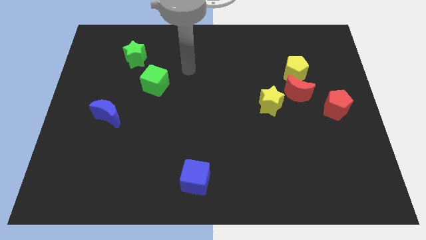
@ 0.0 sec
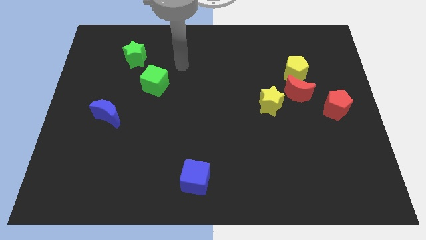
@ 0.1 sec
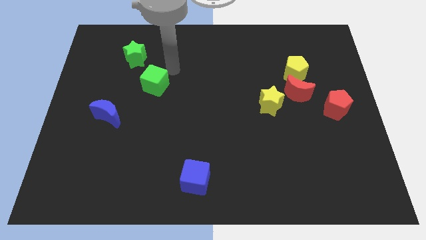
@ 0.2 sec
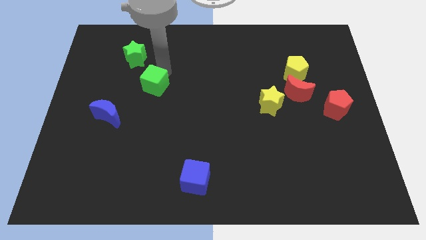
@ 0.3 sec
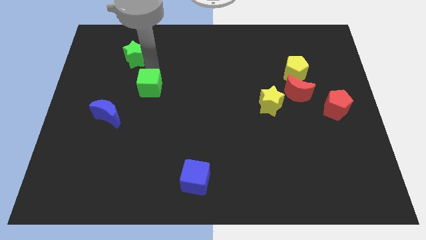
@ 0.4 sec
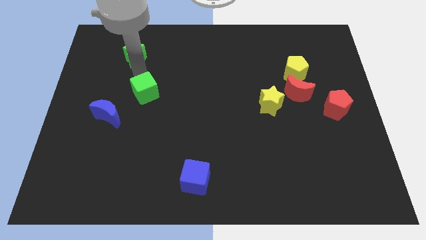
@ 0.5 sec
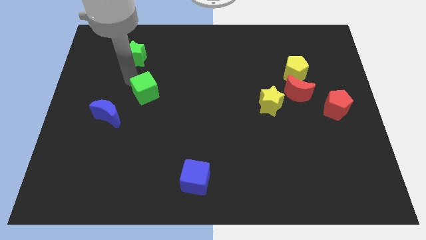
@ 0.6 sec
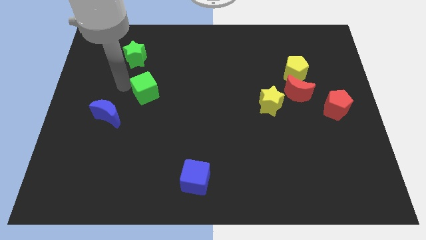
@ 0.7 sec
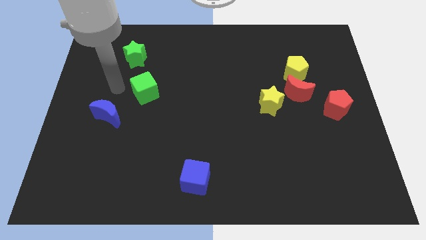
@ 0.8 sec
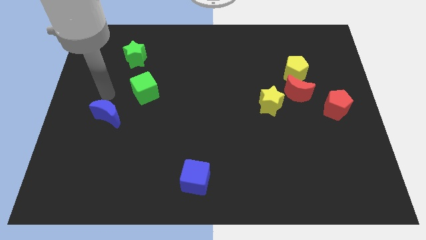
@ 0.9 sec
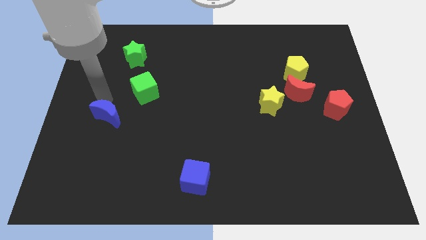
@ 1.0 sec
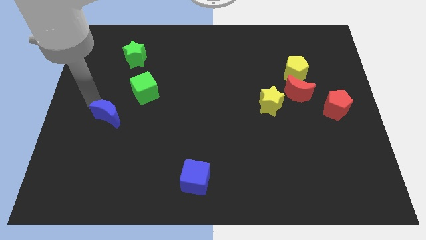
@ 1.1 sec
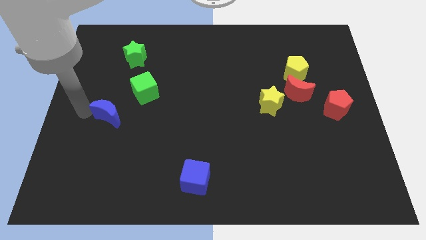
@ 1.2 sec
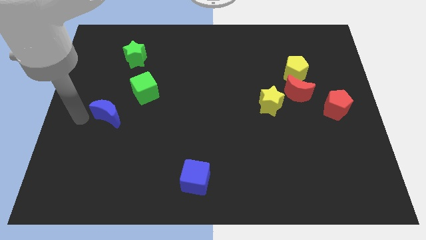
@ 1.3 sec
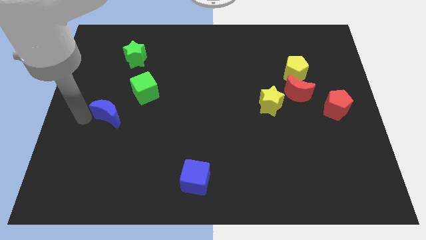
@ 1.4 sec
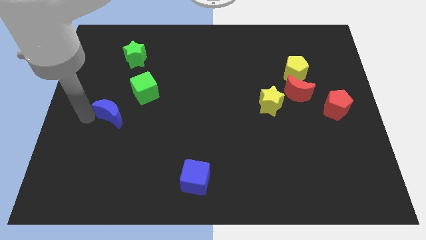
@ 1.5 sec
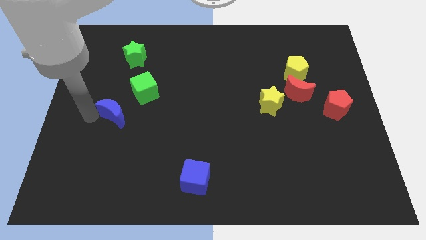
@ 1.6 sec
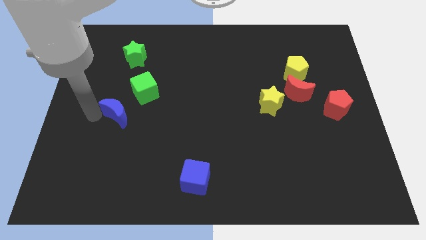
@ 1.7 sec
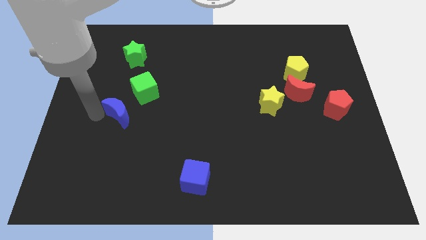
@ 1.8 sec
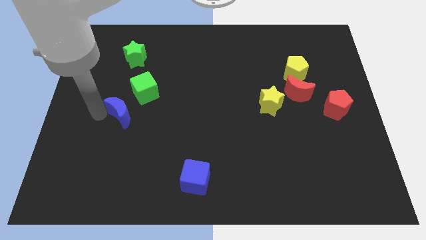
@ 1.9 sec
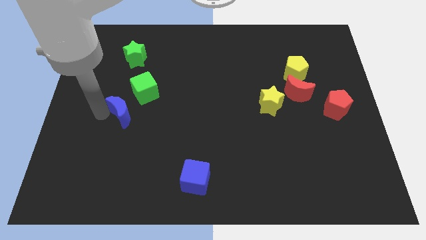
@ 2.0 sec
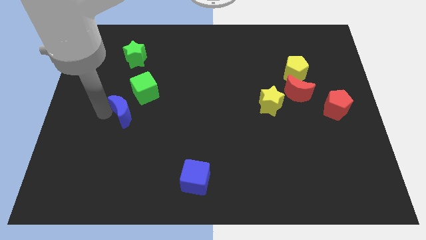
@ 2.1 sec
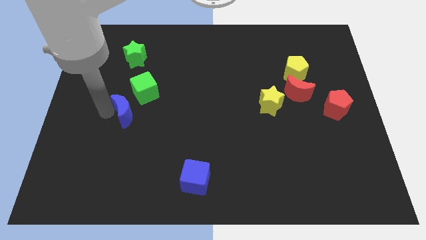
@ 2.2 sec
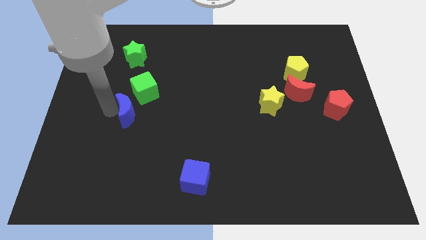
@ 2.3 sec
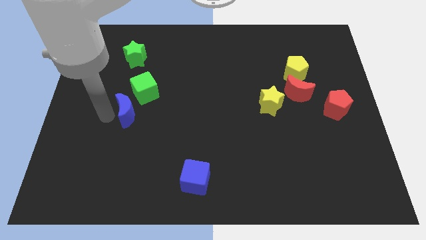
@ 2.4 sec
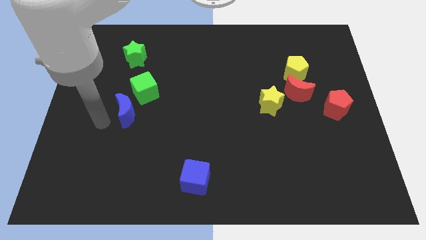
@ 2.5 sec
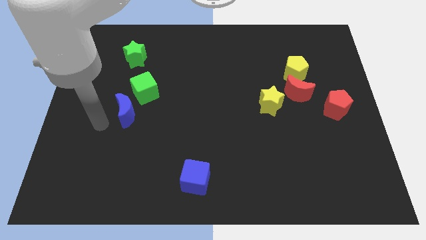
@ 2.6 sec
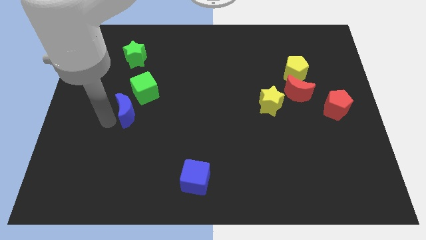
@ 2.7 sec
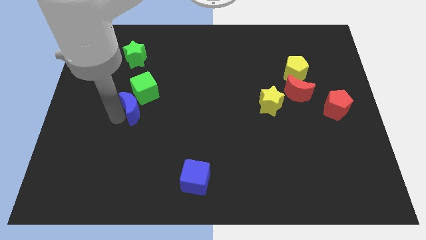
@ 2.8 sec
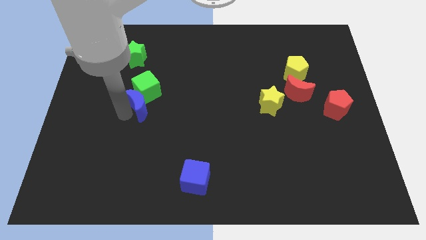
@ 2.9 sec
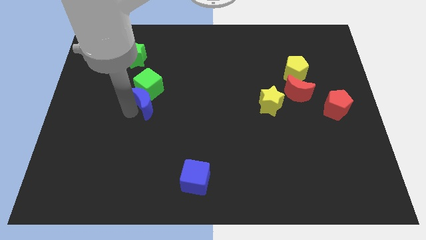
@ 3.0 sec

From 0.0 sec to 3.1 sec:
move the blue moon up and to the right a little bit

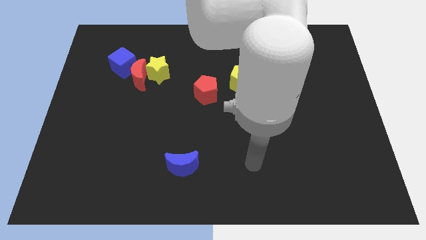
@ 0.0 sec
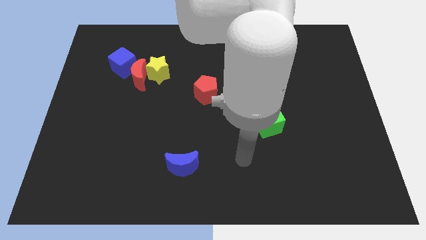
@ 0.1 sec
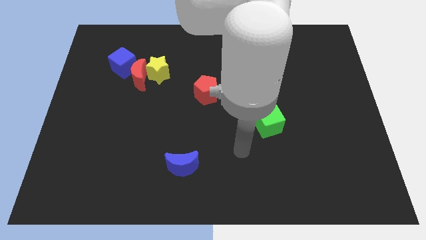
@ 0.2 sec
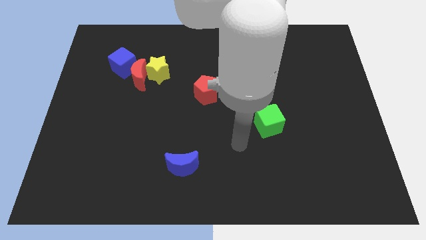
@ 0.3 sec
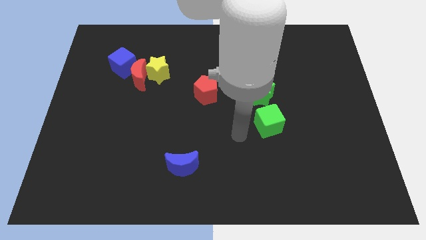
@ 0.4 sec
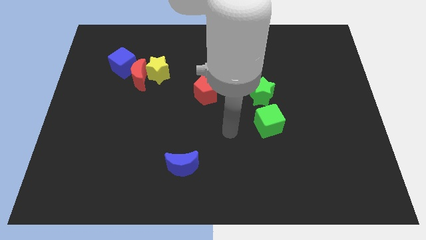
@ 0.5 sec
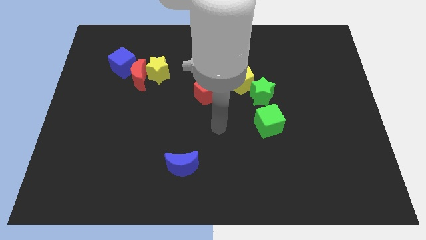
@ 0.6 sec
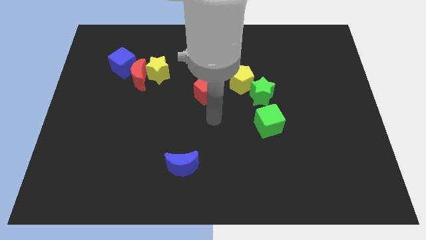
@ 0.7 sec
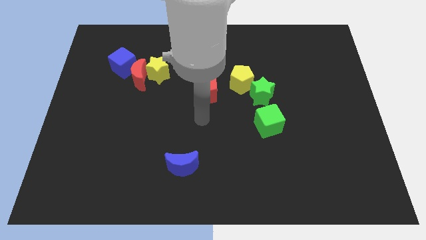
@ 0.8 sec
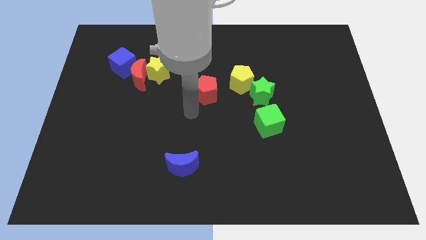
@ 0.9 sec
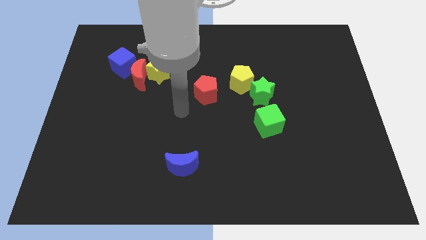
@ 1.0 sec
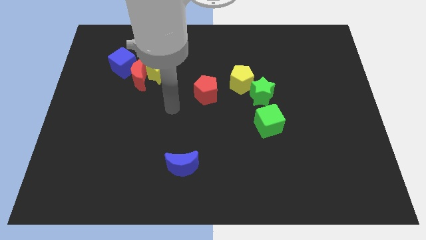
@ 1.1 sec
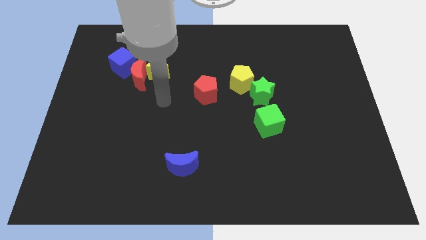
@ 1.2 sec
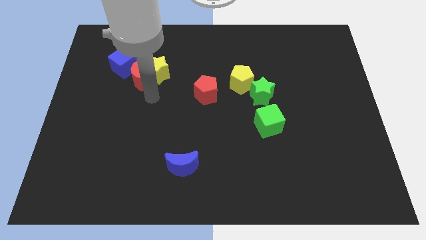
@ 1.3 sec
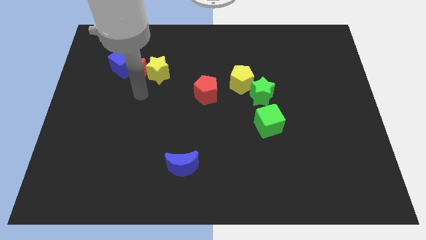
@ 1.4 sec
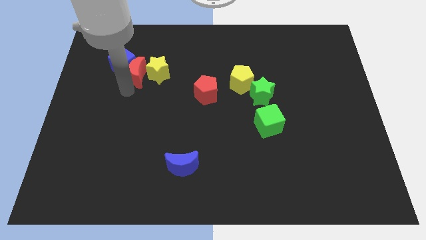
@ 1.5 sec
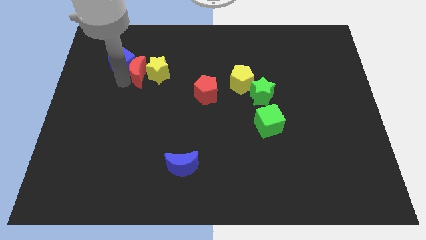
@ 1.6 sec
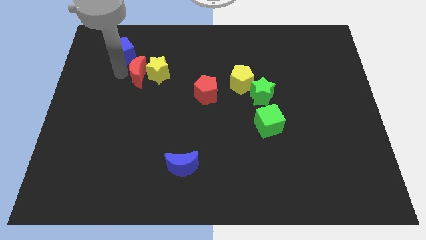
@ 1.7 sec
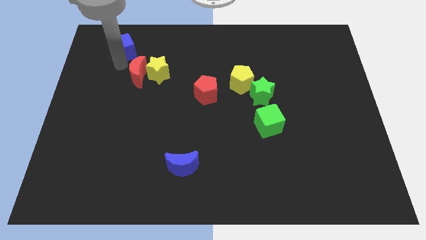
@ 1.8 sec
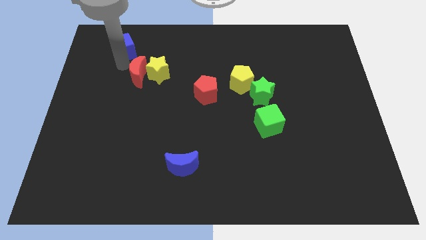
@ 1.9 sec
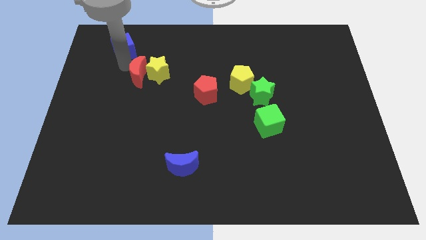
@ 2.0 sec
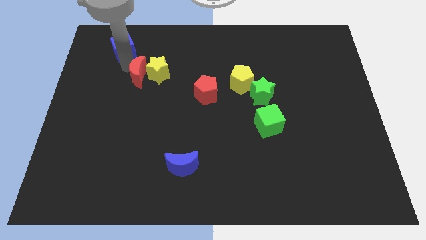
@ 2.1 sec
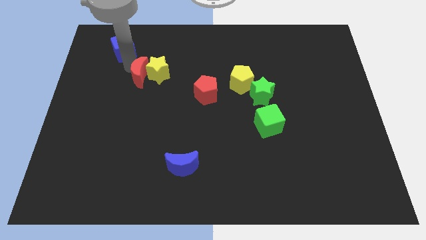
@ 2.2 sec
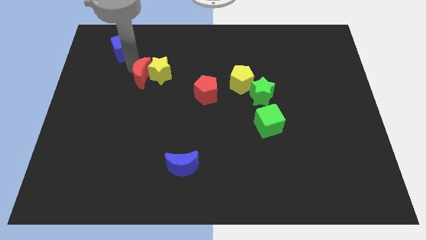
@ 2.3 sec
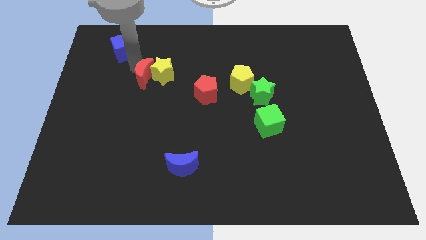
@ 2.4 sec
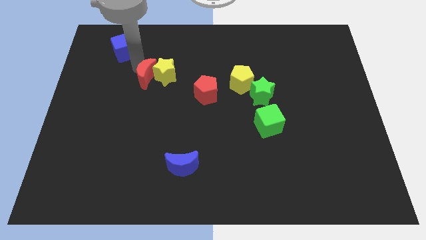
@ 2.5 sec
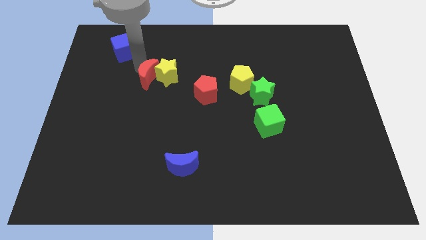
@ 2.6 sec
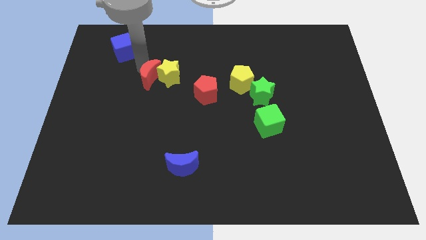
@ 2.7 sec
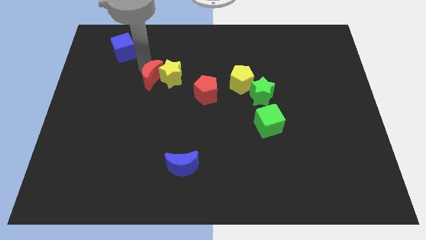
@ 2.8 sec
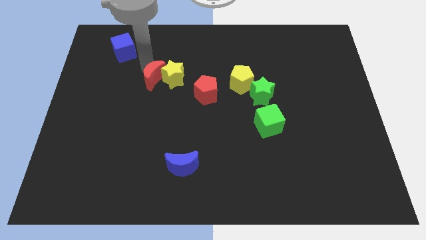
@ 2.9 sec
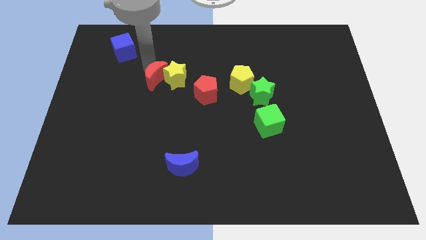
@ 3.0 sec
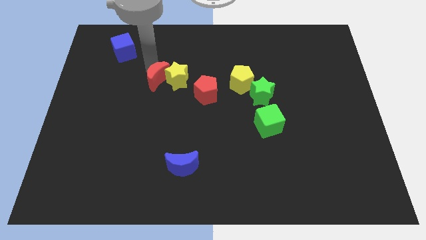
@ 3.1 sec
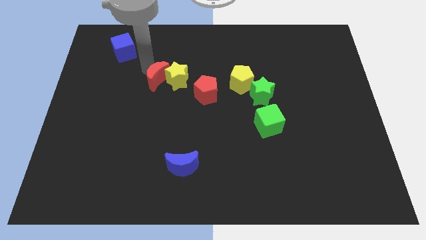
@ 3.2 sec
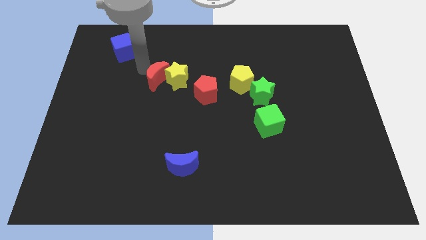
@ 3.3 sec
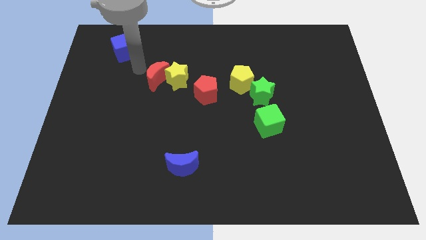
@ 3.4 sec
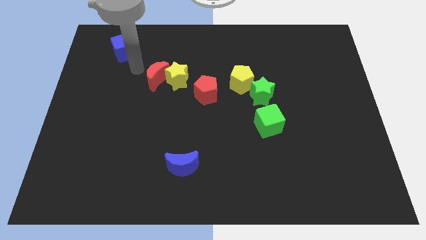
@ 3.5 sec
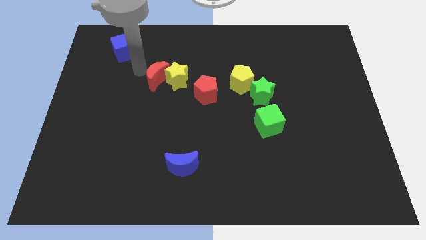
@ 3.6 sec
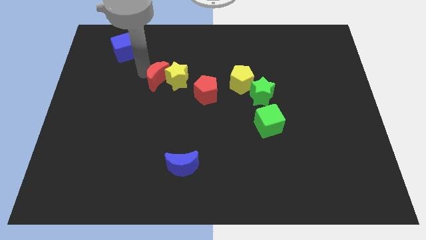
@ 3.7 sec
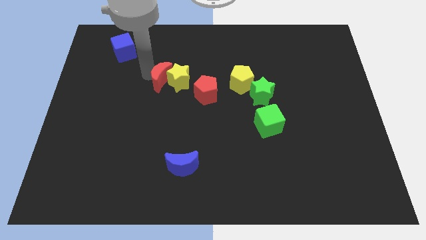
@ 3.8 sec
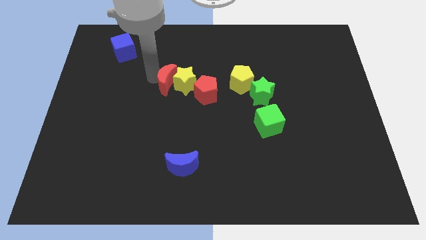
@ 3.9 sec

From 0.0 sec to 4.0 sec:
move the red moon a little bit right

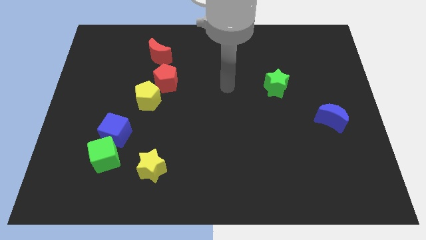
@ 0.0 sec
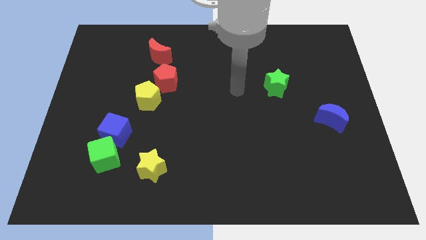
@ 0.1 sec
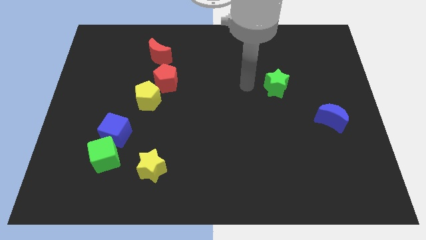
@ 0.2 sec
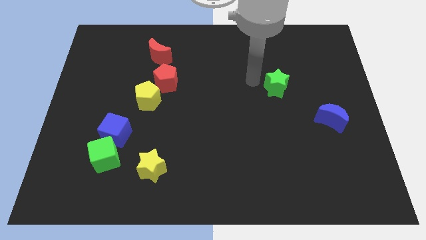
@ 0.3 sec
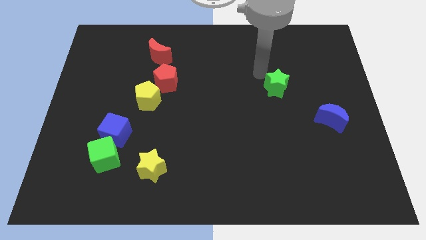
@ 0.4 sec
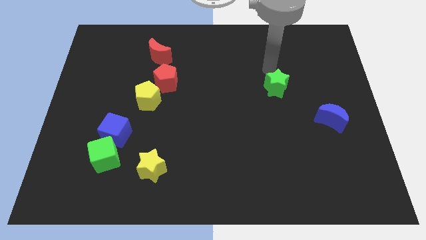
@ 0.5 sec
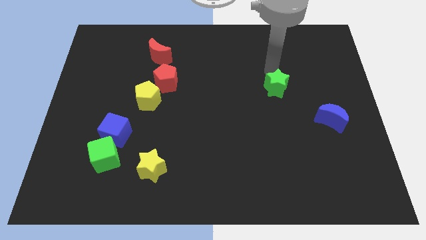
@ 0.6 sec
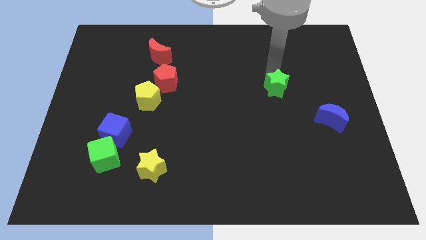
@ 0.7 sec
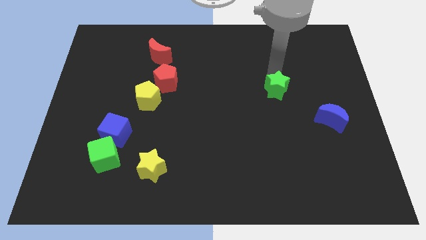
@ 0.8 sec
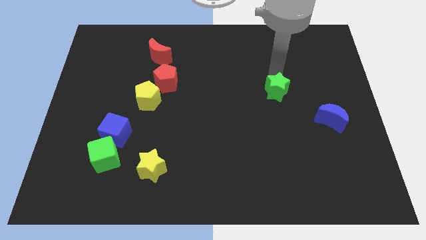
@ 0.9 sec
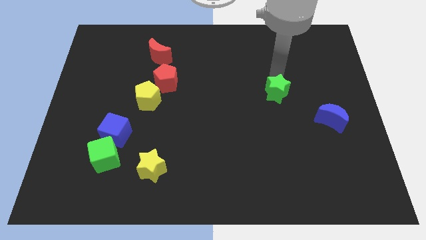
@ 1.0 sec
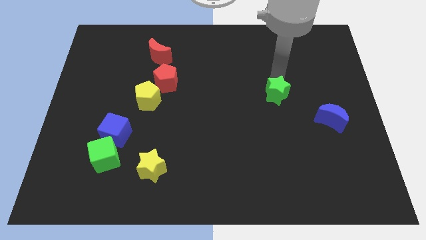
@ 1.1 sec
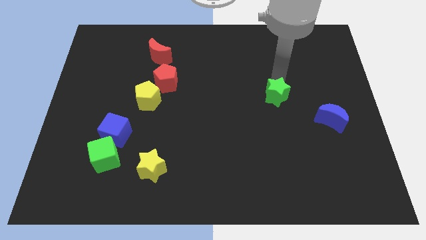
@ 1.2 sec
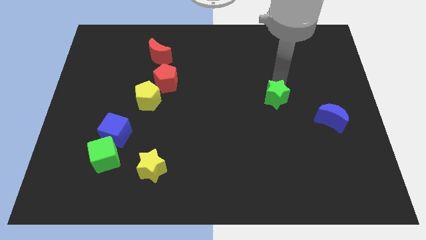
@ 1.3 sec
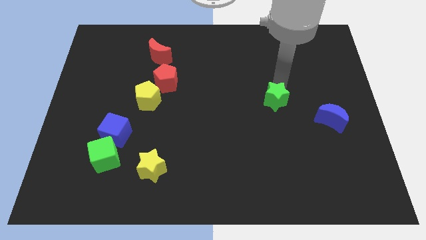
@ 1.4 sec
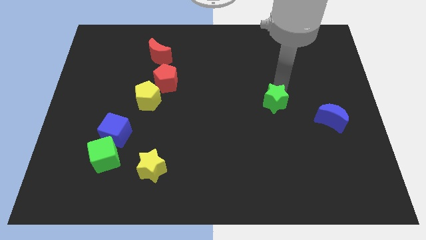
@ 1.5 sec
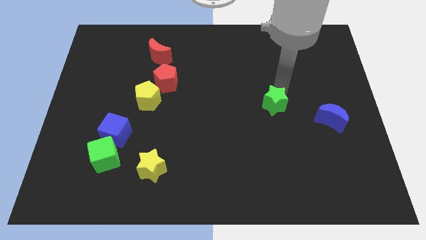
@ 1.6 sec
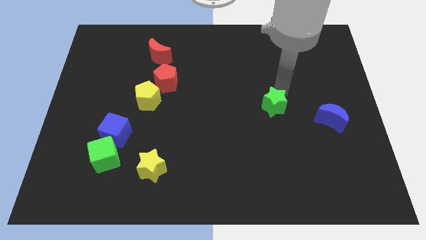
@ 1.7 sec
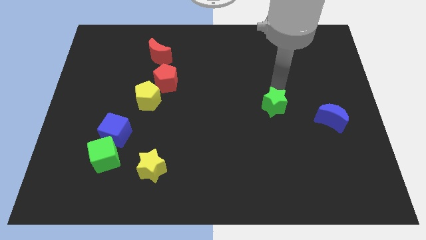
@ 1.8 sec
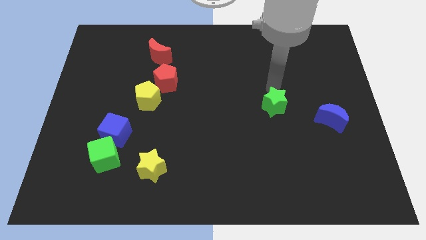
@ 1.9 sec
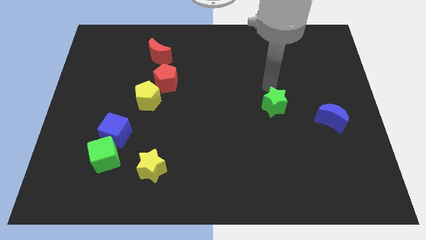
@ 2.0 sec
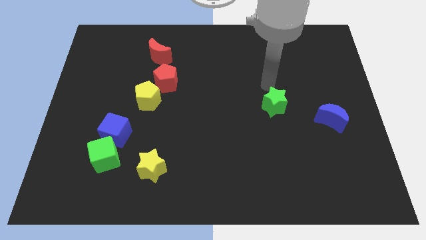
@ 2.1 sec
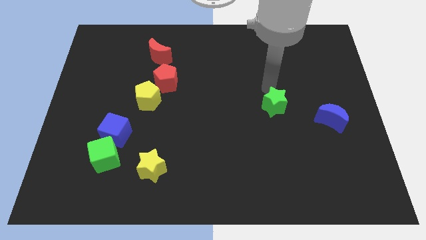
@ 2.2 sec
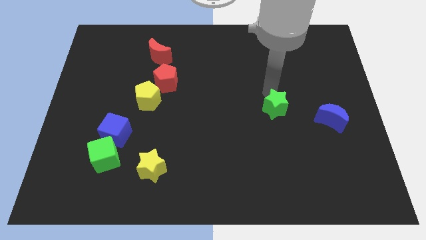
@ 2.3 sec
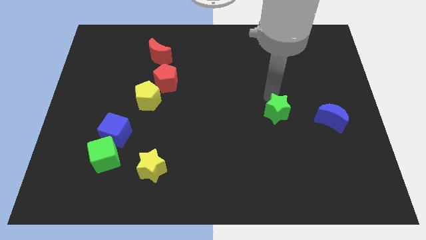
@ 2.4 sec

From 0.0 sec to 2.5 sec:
push the green star downwards slightly
